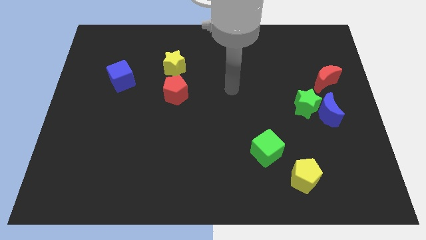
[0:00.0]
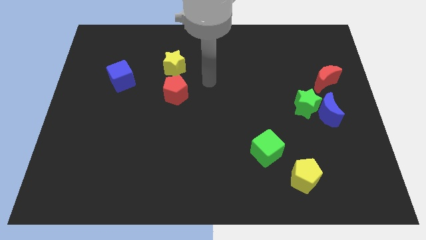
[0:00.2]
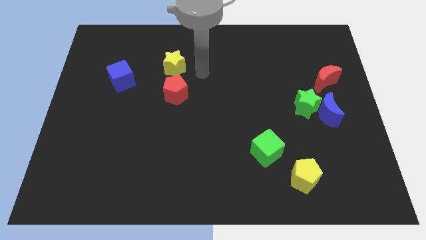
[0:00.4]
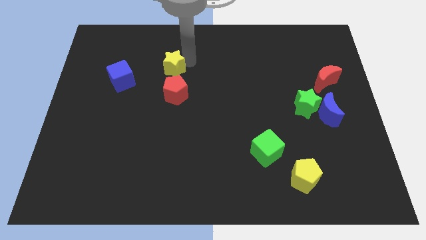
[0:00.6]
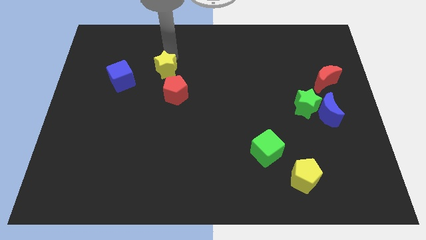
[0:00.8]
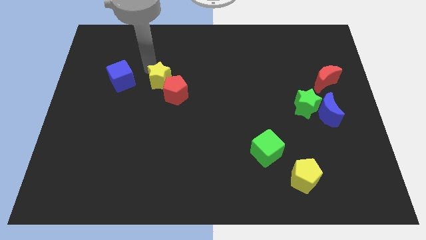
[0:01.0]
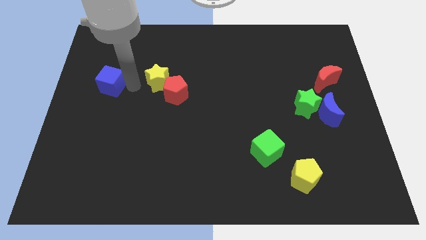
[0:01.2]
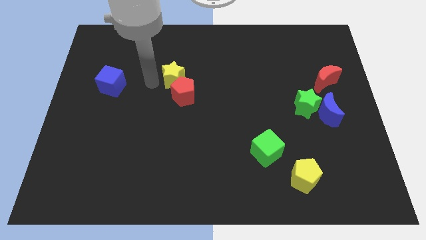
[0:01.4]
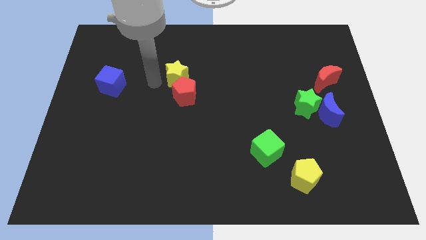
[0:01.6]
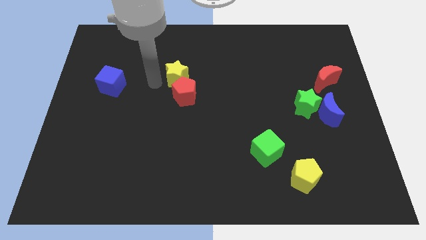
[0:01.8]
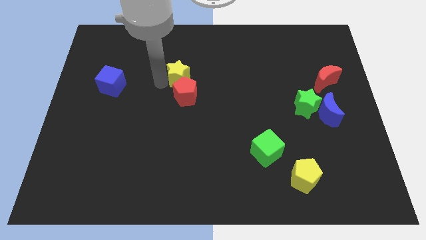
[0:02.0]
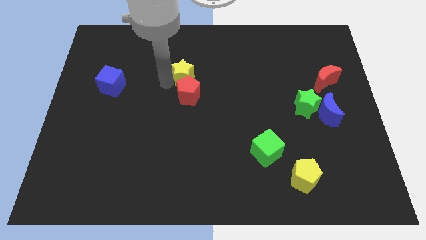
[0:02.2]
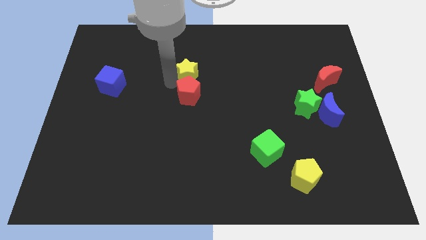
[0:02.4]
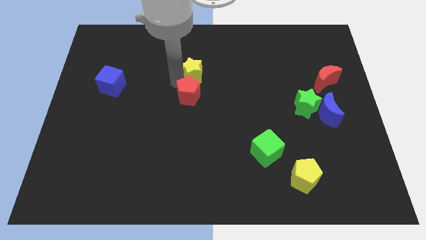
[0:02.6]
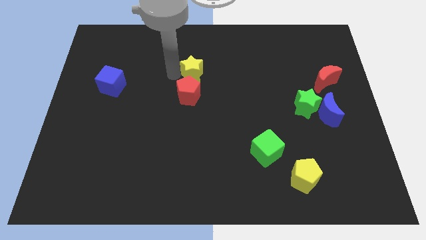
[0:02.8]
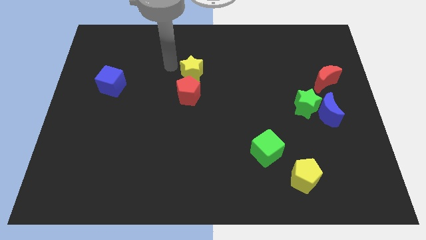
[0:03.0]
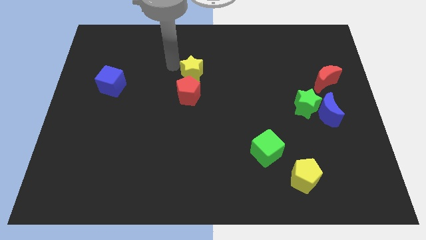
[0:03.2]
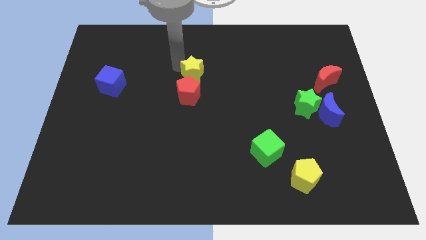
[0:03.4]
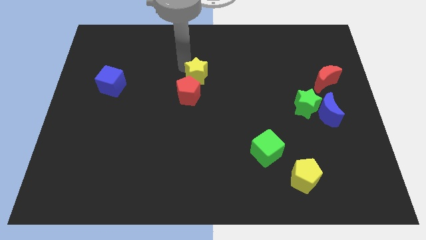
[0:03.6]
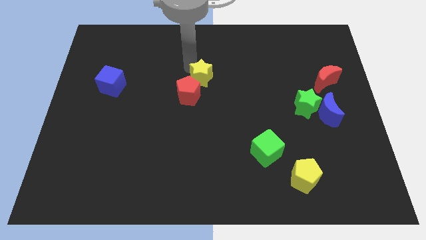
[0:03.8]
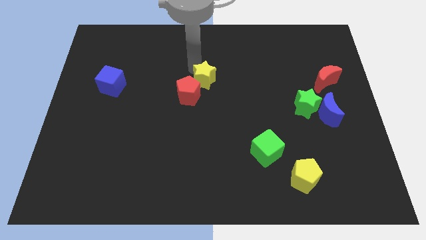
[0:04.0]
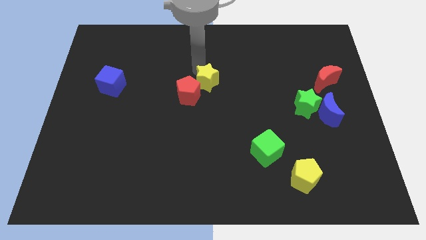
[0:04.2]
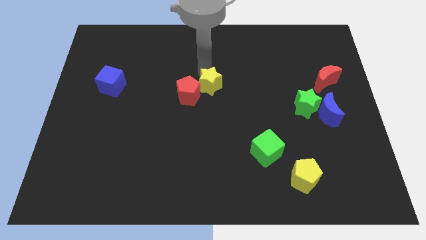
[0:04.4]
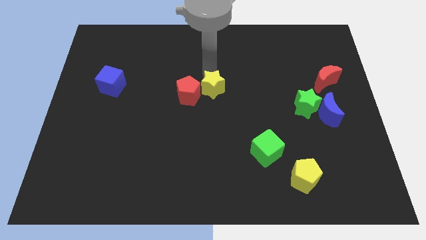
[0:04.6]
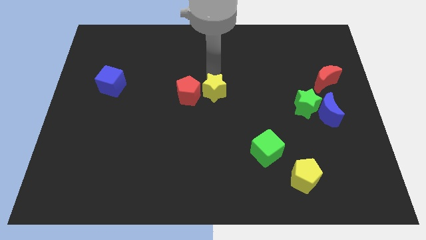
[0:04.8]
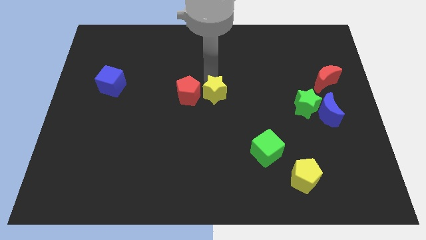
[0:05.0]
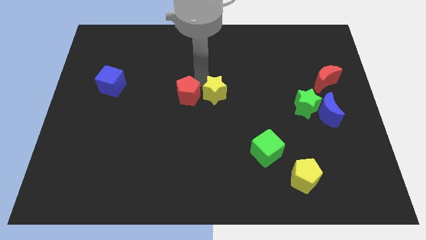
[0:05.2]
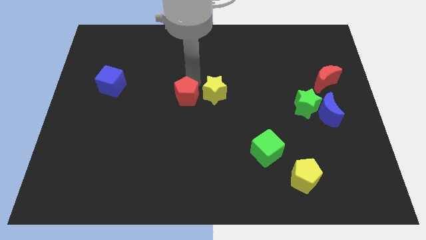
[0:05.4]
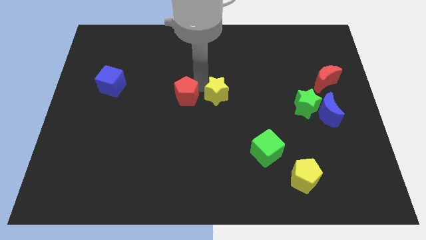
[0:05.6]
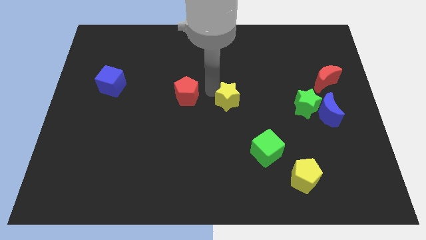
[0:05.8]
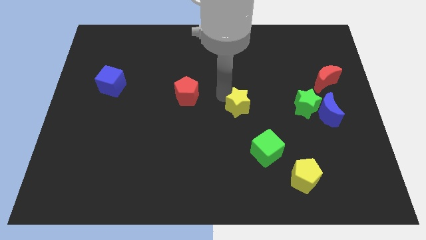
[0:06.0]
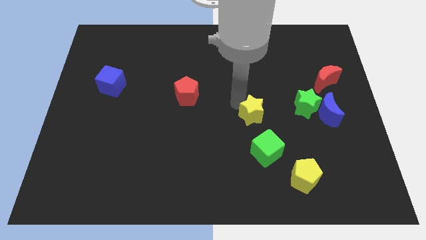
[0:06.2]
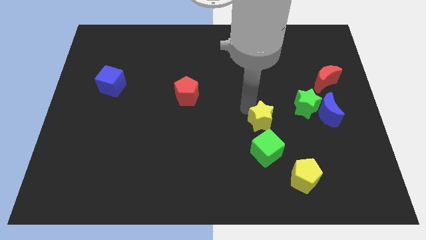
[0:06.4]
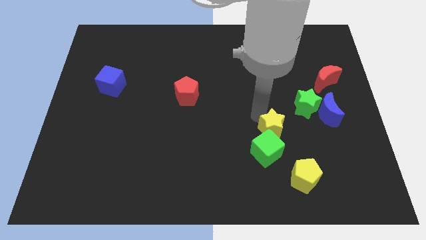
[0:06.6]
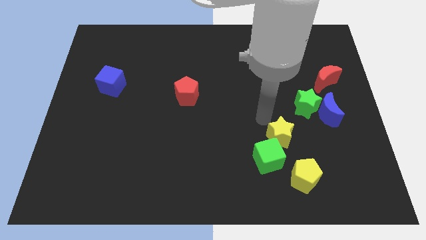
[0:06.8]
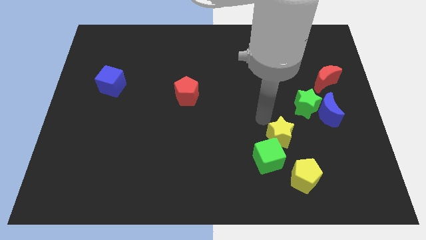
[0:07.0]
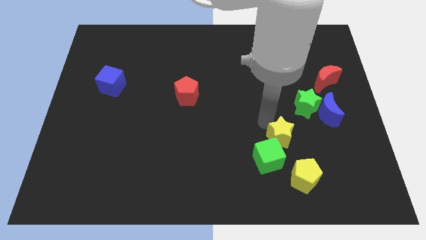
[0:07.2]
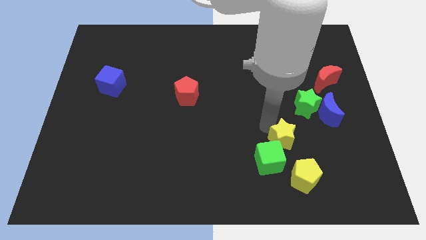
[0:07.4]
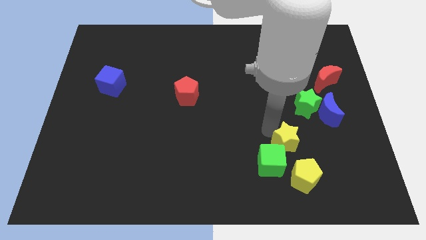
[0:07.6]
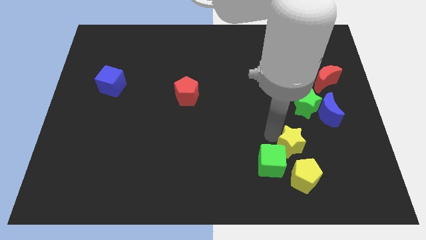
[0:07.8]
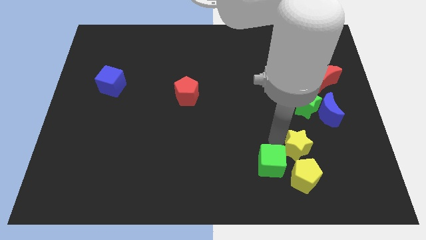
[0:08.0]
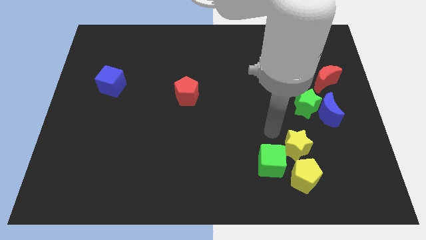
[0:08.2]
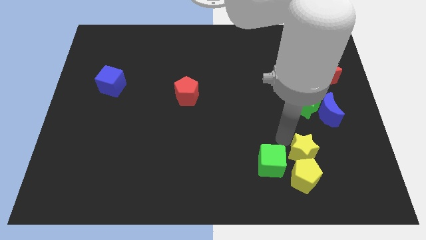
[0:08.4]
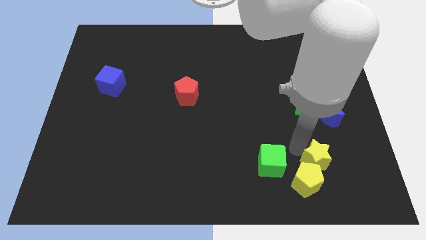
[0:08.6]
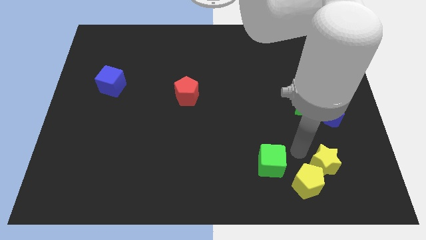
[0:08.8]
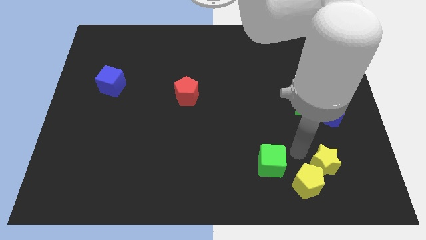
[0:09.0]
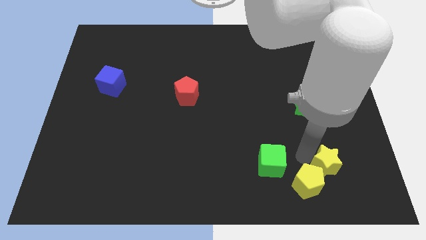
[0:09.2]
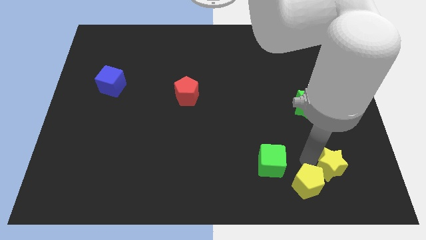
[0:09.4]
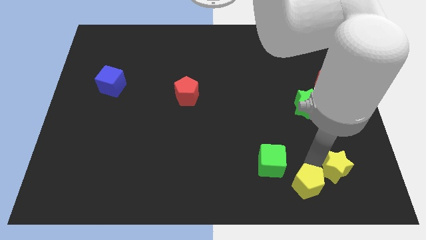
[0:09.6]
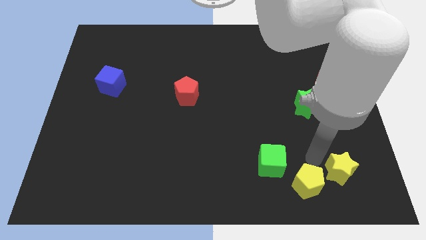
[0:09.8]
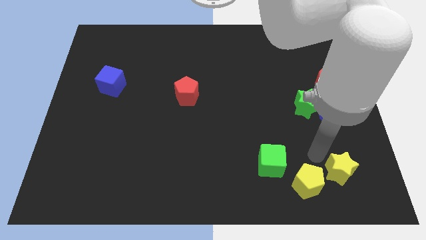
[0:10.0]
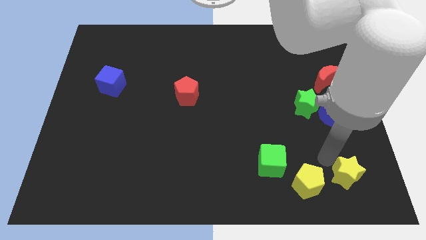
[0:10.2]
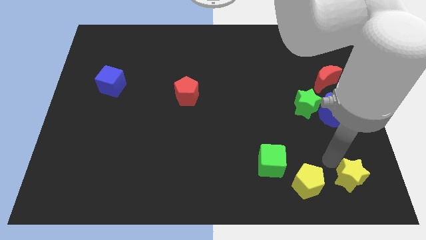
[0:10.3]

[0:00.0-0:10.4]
push the yellow star to the bottom right corner

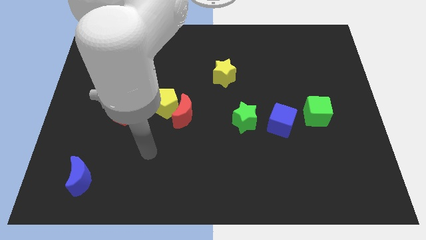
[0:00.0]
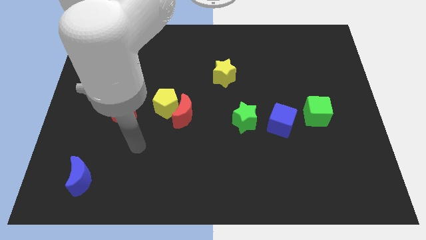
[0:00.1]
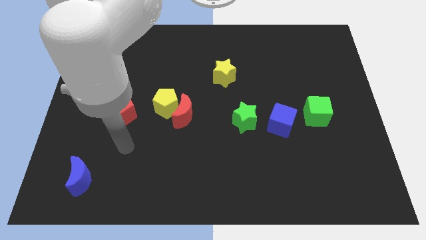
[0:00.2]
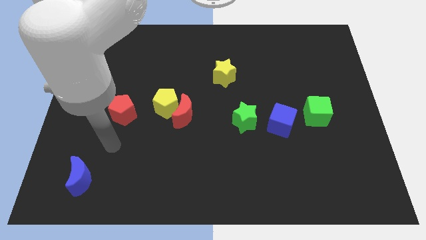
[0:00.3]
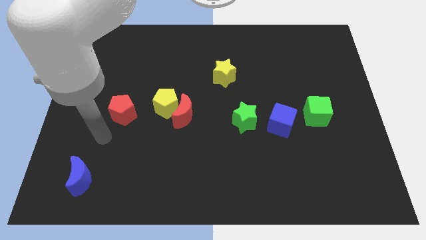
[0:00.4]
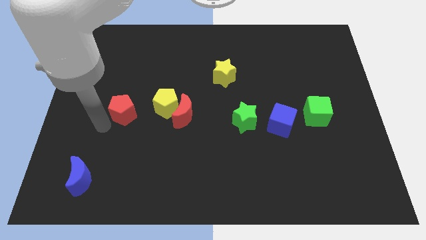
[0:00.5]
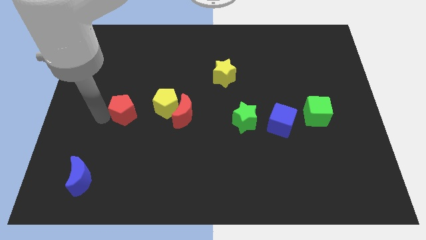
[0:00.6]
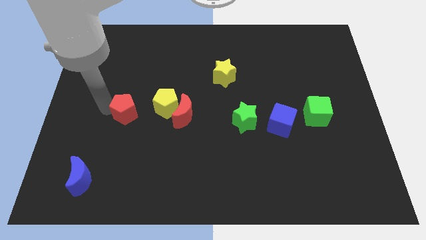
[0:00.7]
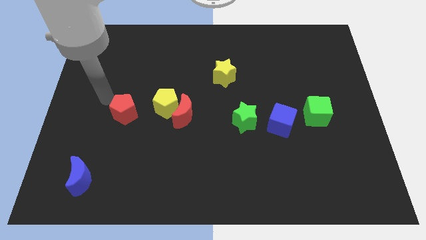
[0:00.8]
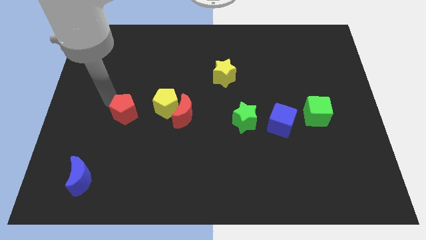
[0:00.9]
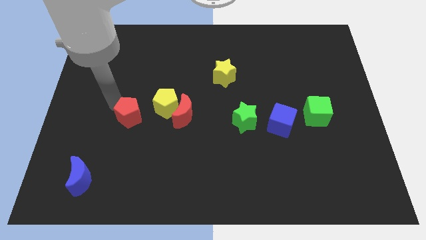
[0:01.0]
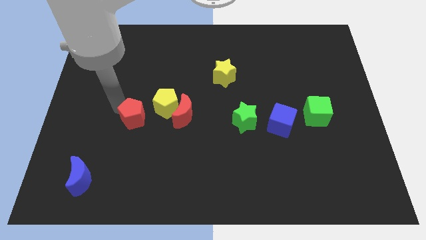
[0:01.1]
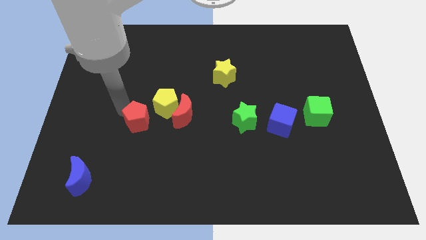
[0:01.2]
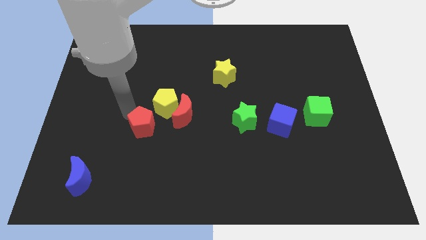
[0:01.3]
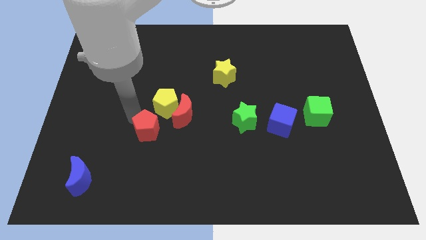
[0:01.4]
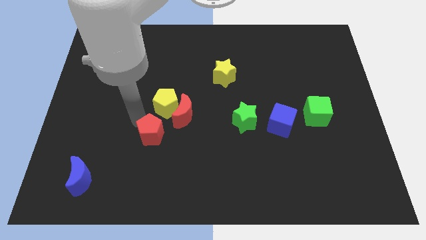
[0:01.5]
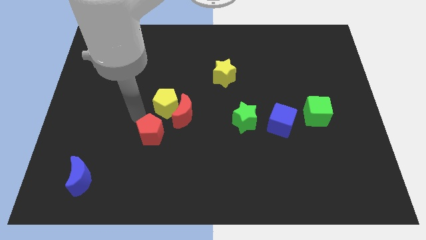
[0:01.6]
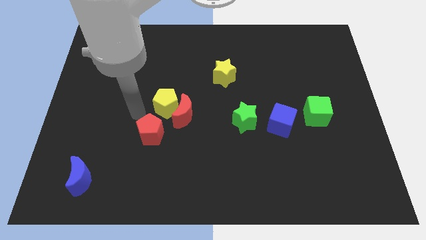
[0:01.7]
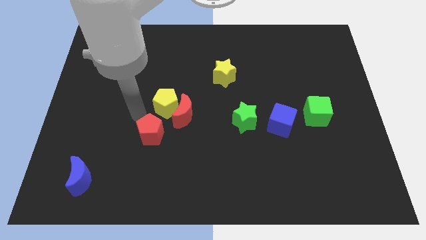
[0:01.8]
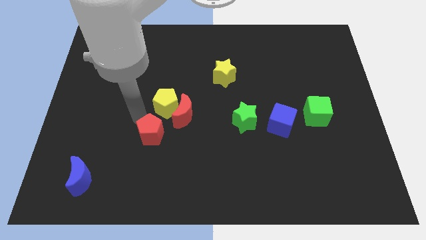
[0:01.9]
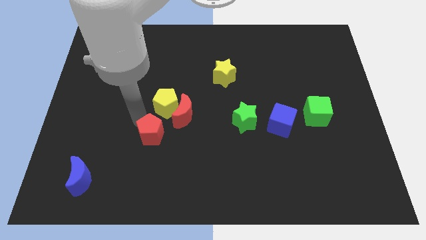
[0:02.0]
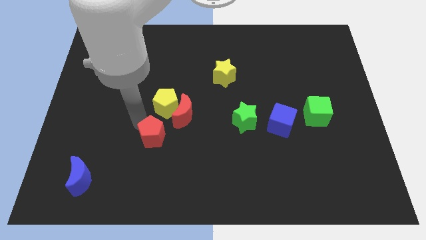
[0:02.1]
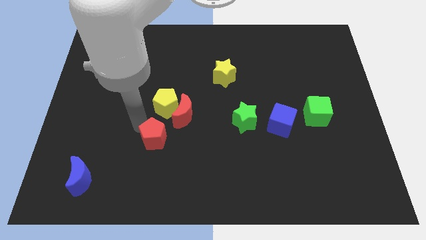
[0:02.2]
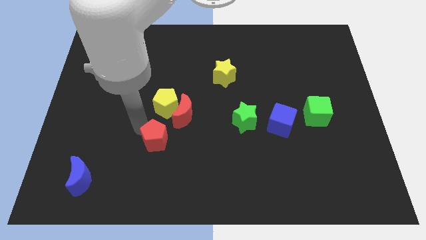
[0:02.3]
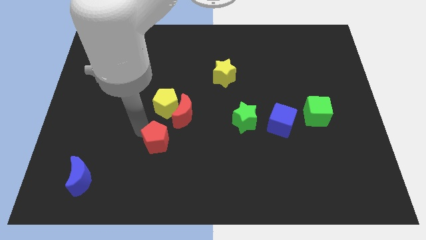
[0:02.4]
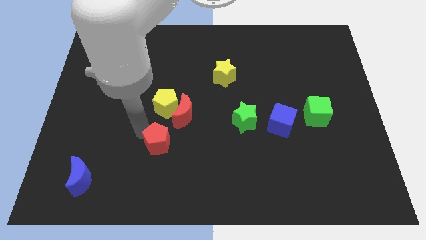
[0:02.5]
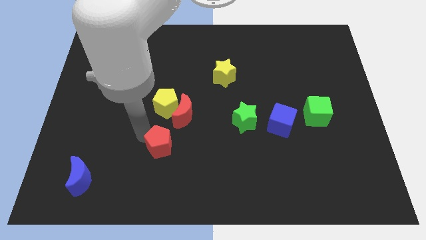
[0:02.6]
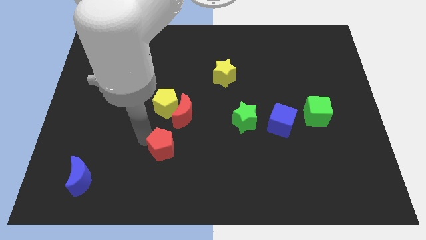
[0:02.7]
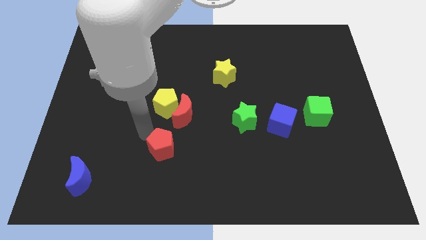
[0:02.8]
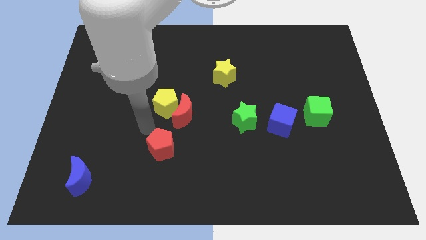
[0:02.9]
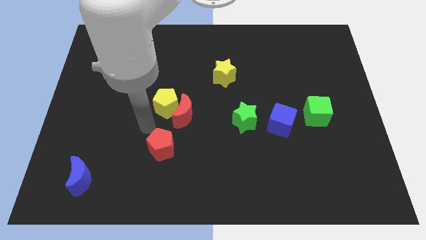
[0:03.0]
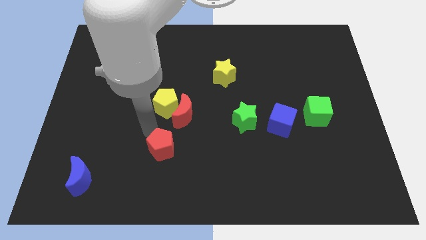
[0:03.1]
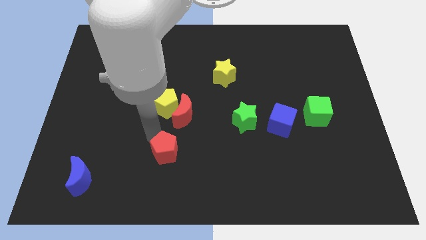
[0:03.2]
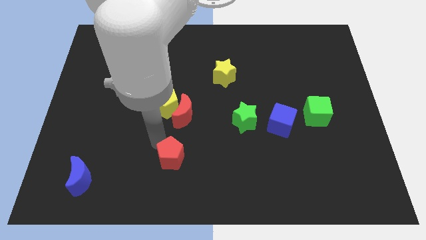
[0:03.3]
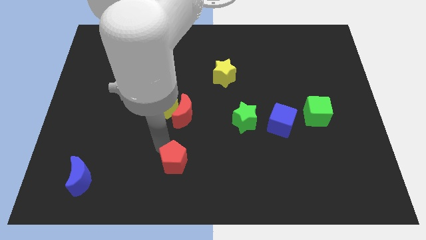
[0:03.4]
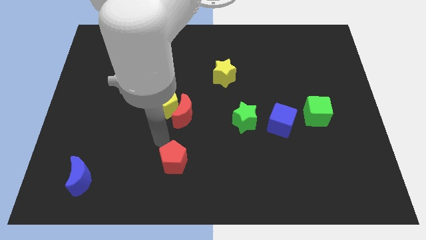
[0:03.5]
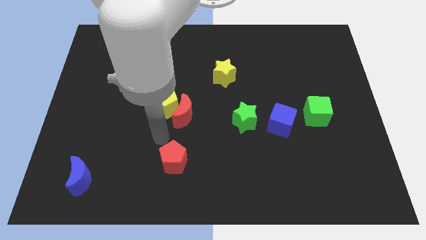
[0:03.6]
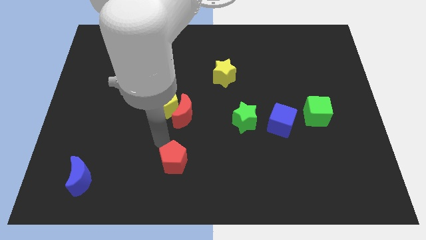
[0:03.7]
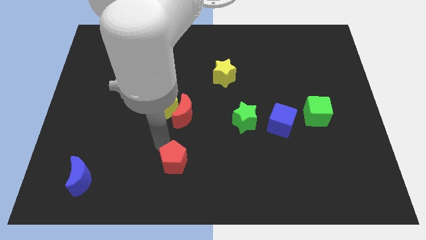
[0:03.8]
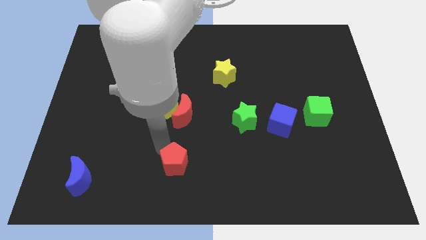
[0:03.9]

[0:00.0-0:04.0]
move the red pentagon to the bottom side
